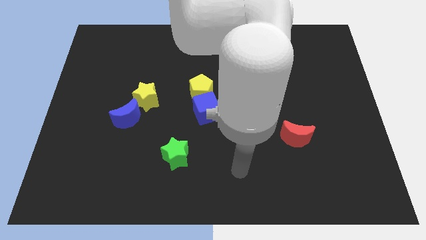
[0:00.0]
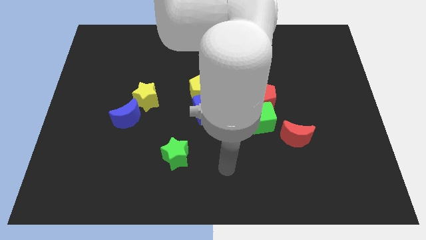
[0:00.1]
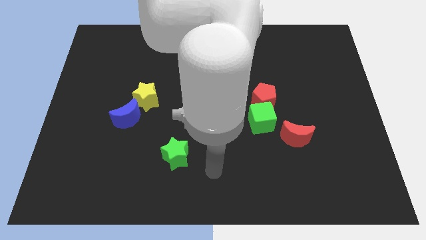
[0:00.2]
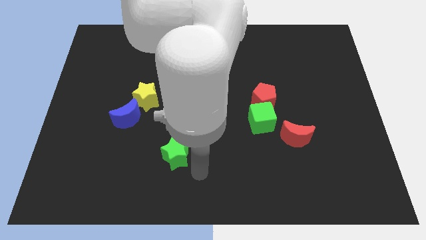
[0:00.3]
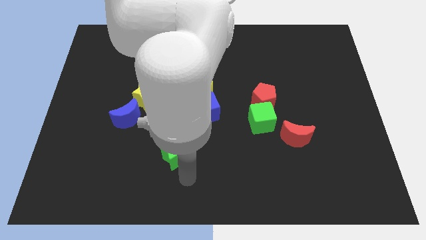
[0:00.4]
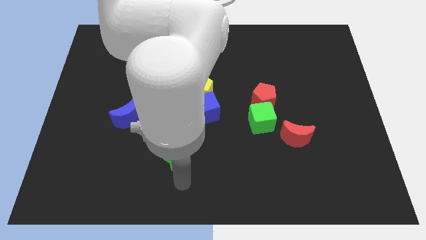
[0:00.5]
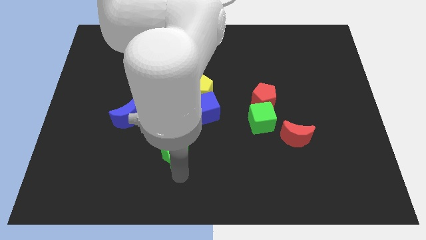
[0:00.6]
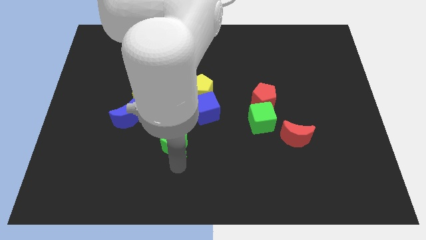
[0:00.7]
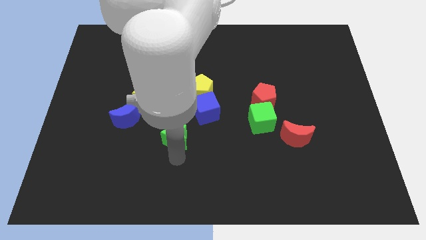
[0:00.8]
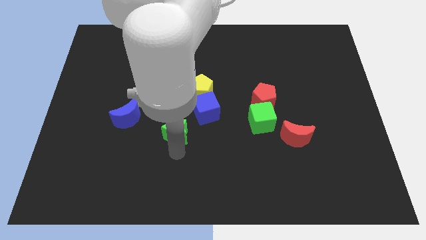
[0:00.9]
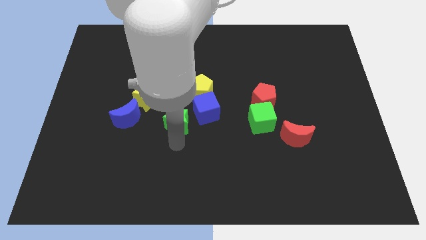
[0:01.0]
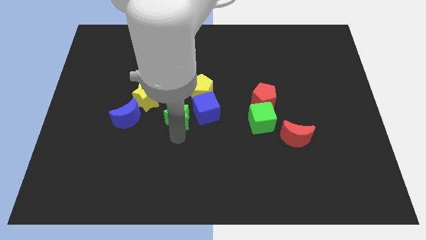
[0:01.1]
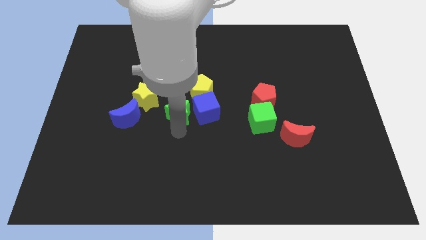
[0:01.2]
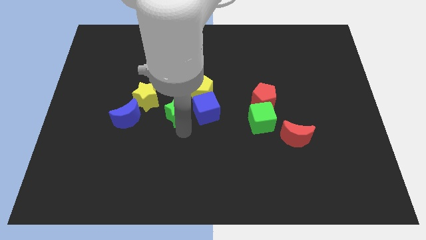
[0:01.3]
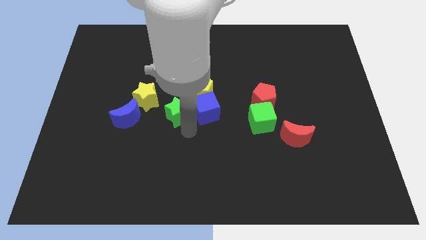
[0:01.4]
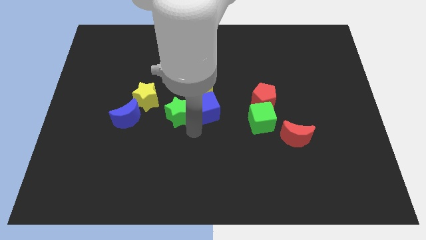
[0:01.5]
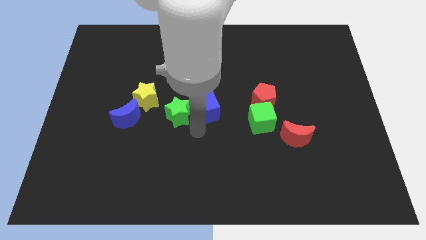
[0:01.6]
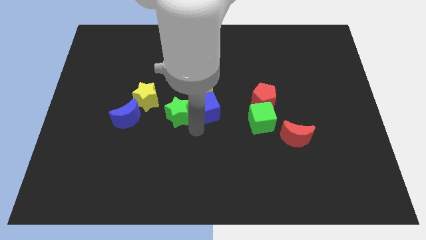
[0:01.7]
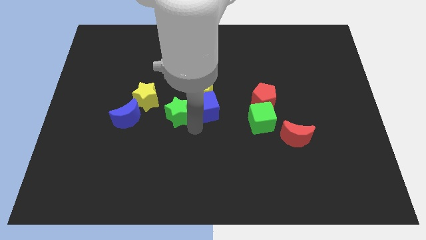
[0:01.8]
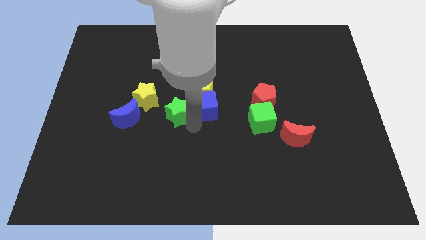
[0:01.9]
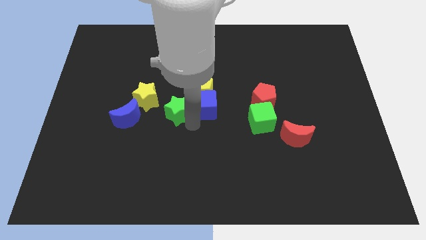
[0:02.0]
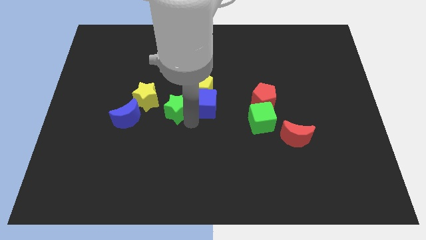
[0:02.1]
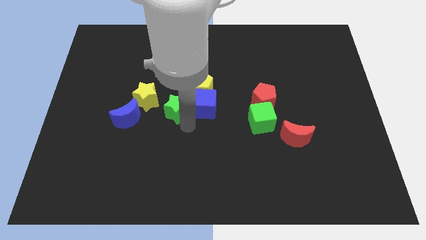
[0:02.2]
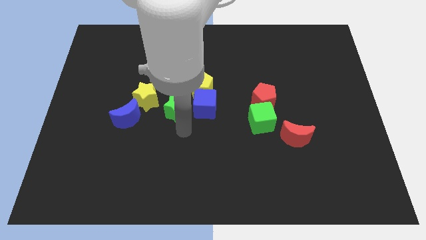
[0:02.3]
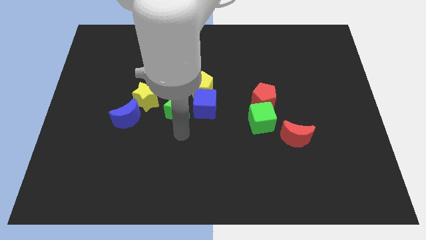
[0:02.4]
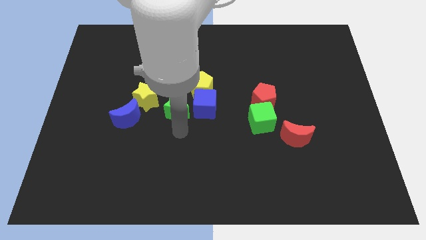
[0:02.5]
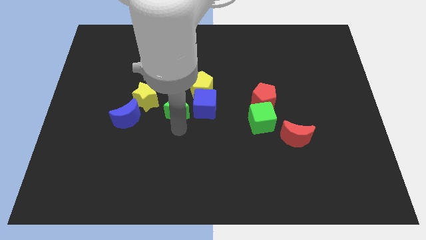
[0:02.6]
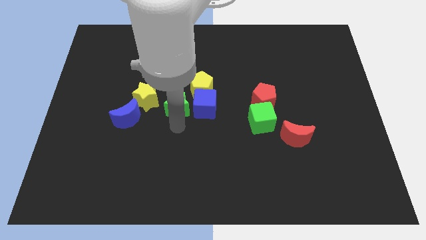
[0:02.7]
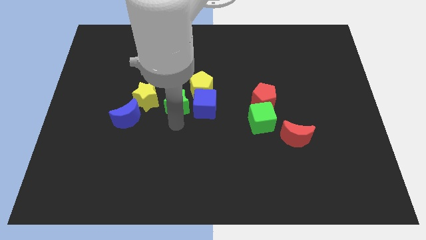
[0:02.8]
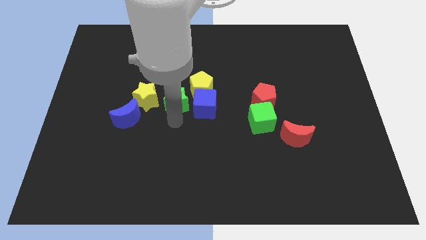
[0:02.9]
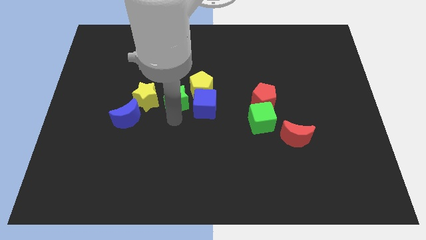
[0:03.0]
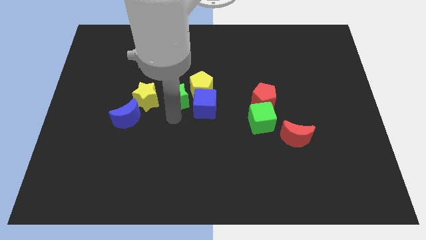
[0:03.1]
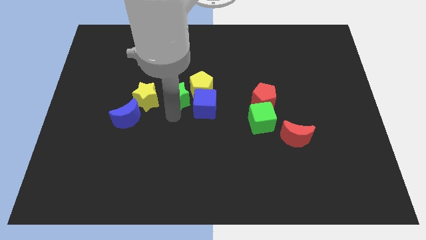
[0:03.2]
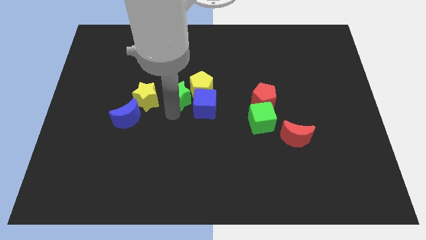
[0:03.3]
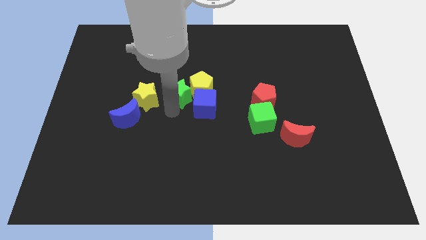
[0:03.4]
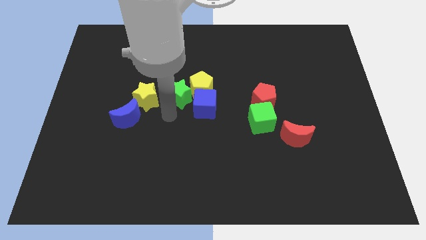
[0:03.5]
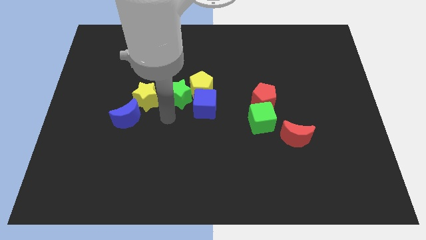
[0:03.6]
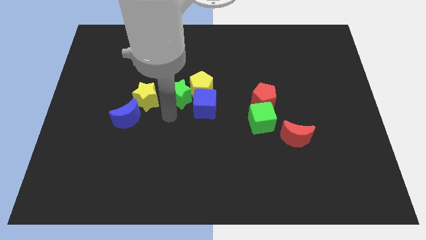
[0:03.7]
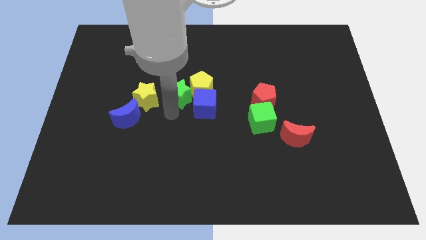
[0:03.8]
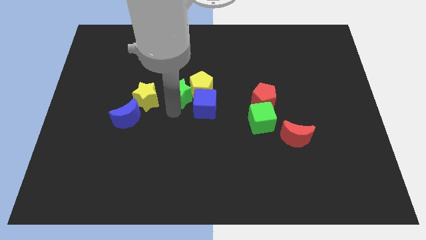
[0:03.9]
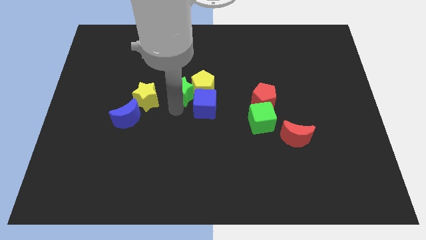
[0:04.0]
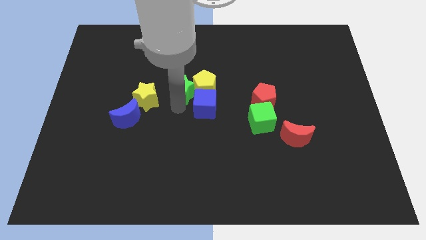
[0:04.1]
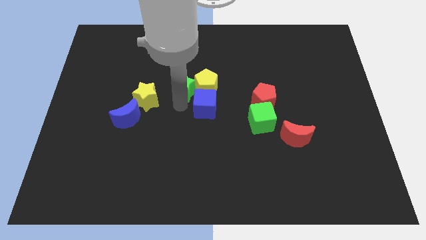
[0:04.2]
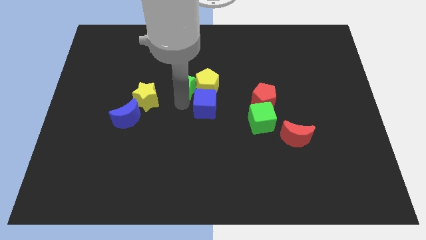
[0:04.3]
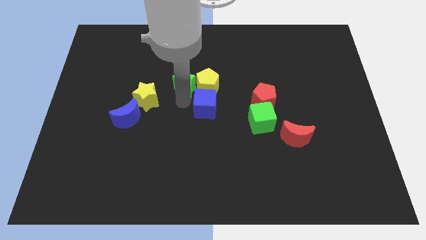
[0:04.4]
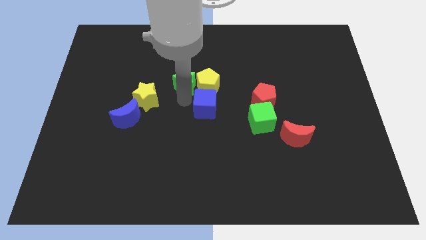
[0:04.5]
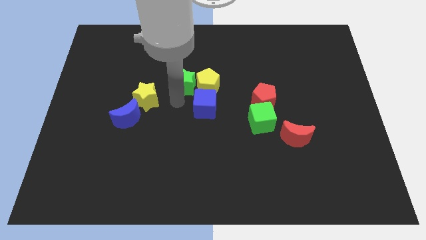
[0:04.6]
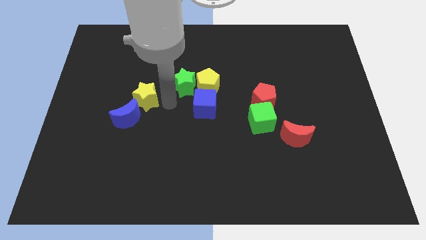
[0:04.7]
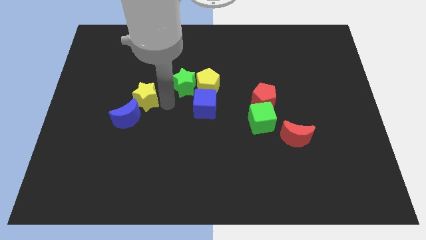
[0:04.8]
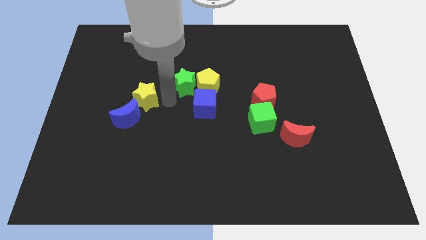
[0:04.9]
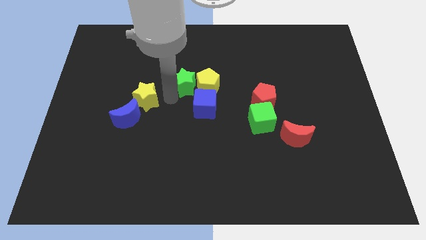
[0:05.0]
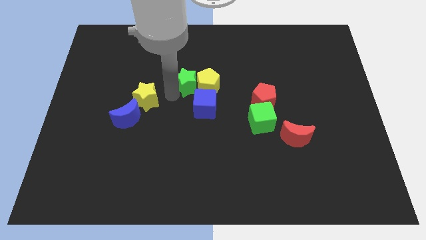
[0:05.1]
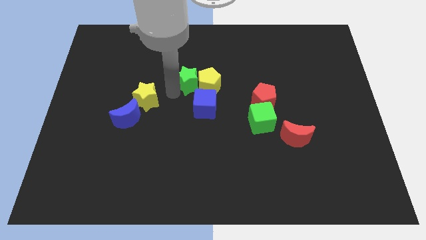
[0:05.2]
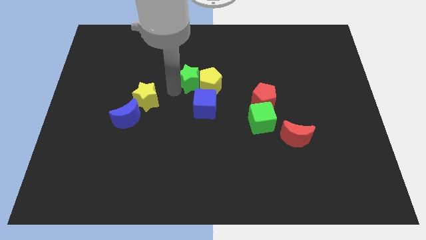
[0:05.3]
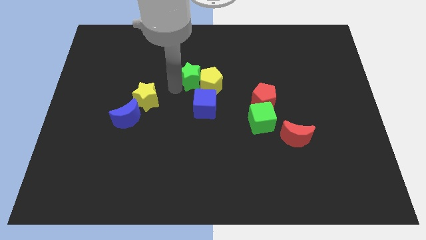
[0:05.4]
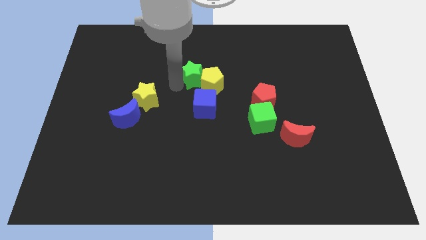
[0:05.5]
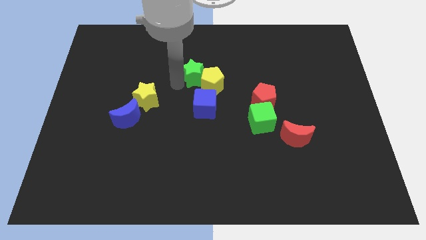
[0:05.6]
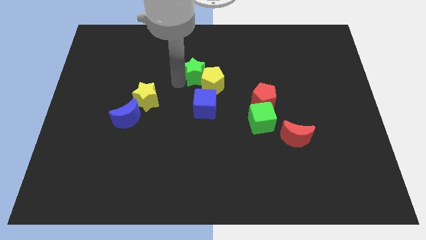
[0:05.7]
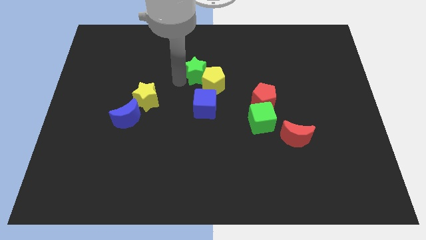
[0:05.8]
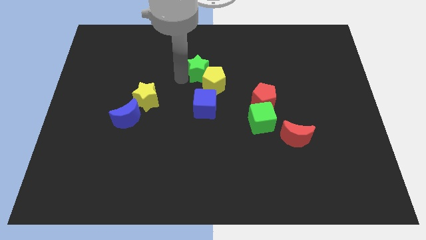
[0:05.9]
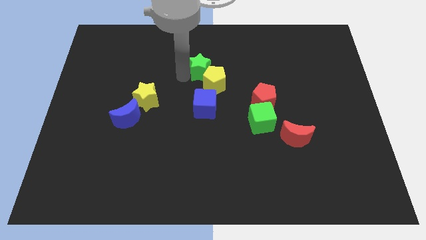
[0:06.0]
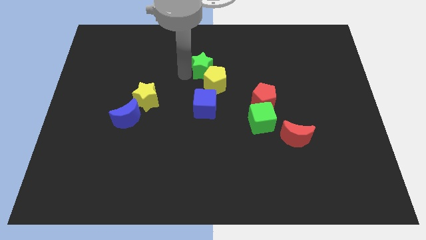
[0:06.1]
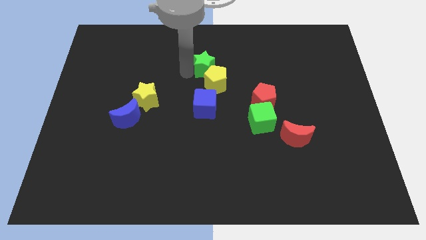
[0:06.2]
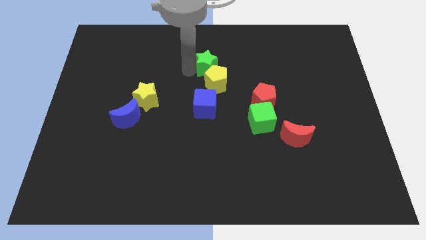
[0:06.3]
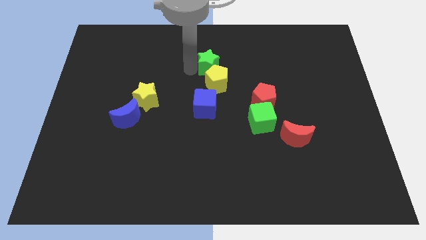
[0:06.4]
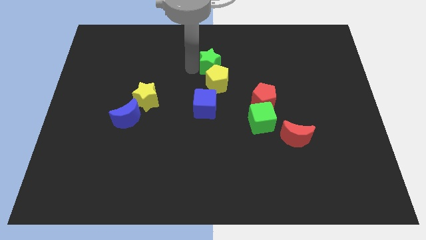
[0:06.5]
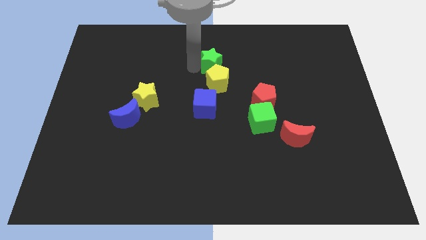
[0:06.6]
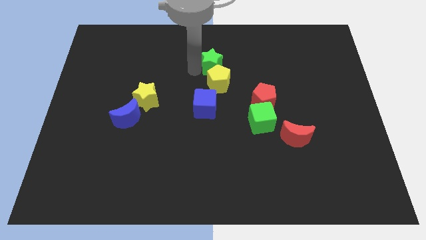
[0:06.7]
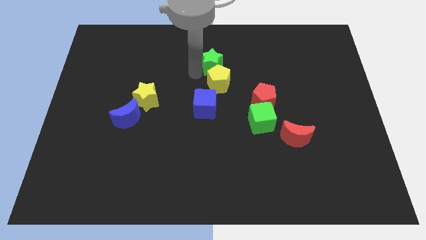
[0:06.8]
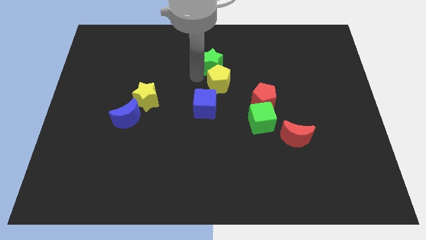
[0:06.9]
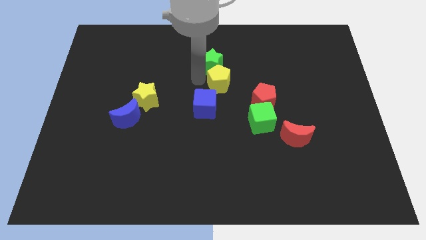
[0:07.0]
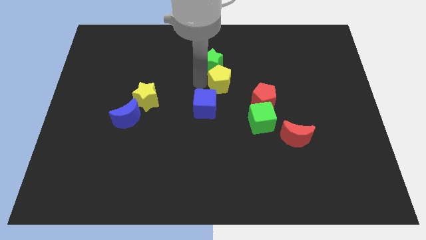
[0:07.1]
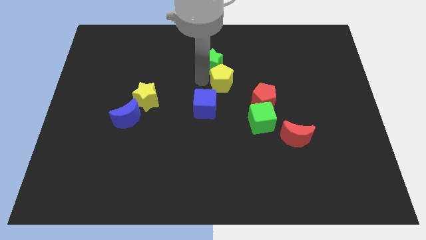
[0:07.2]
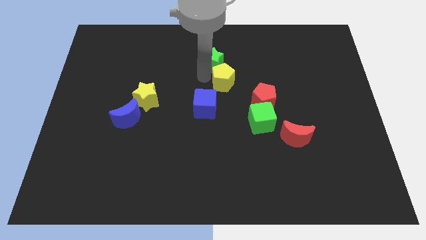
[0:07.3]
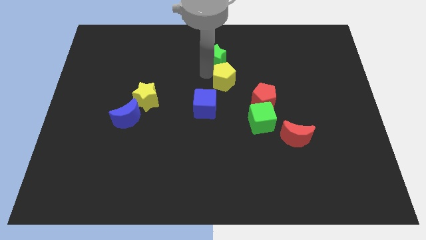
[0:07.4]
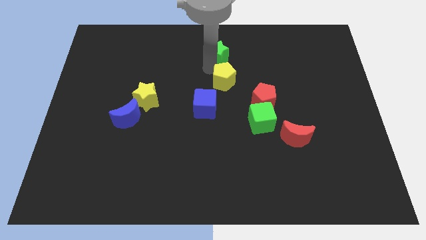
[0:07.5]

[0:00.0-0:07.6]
move the green star to the top
